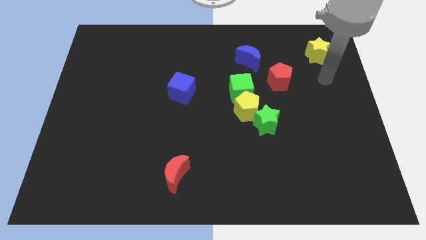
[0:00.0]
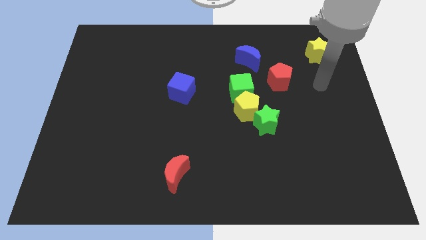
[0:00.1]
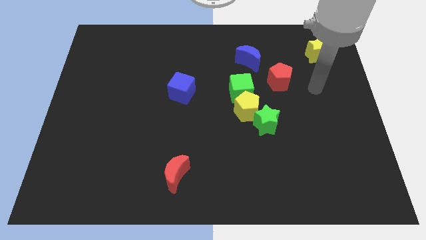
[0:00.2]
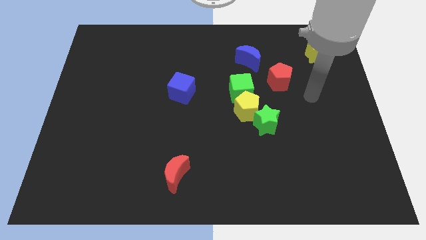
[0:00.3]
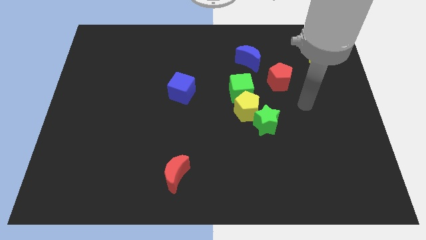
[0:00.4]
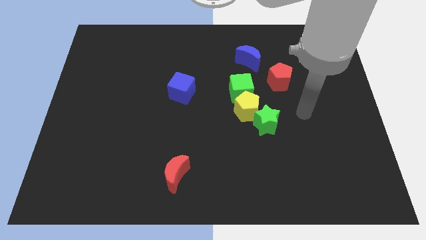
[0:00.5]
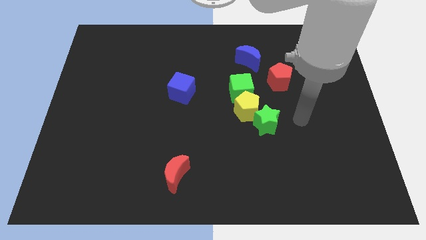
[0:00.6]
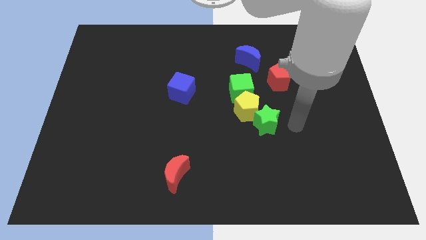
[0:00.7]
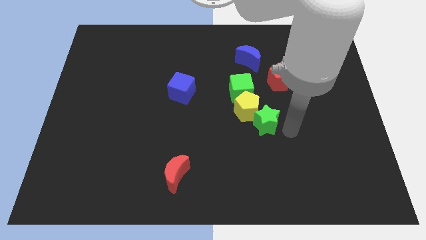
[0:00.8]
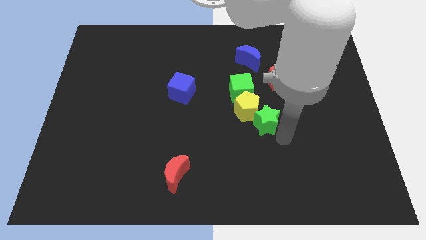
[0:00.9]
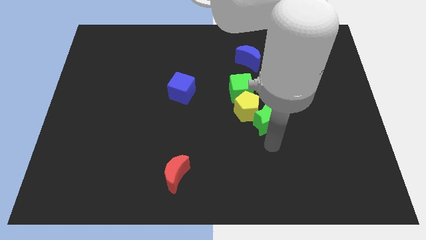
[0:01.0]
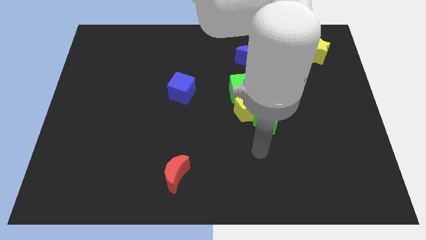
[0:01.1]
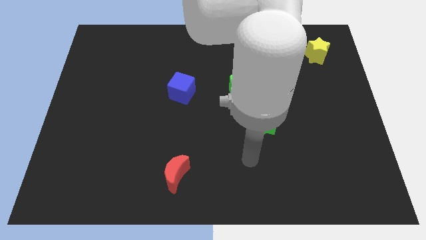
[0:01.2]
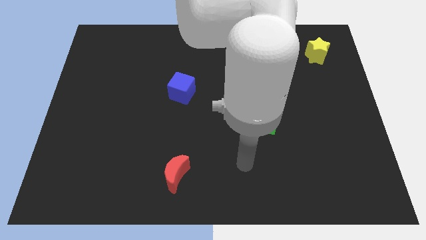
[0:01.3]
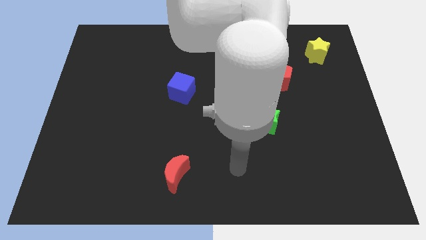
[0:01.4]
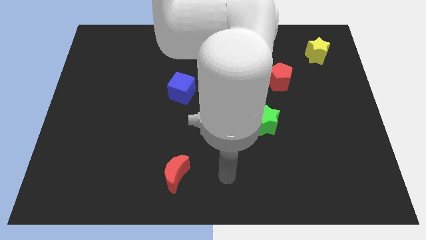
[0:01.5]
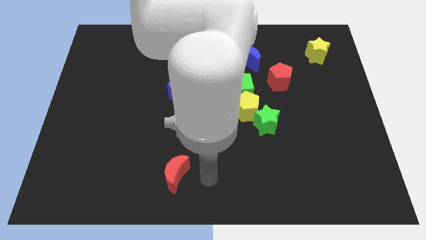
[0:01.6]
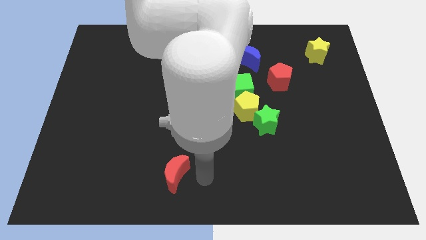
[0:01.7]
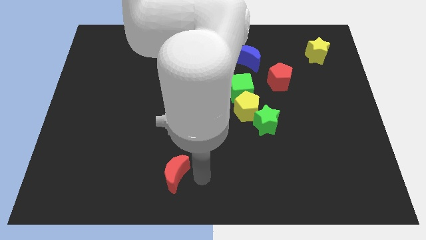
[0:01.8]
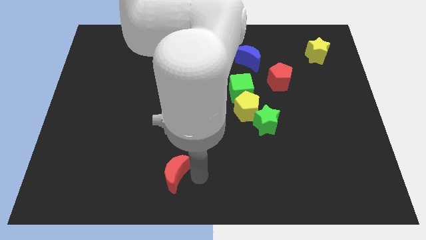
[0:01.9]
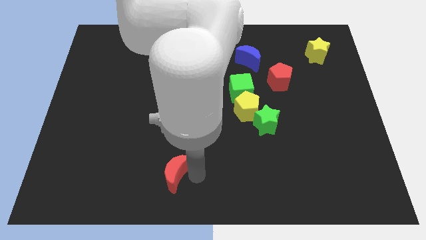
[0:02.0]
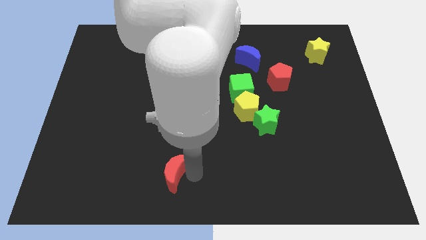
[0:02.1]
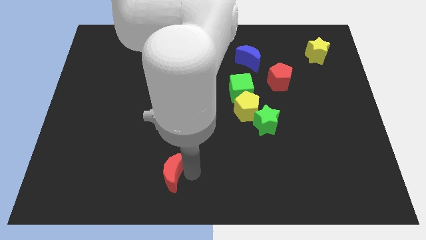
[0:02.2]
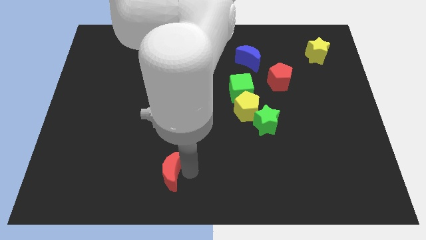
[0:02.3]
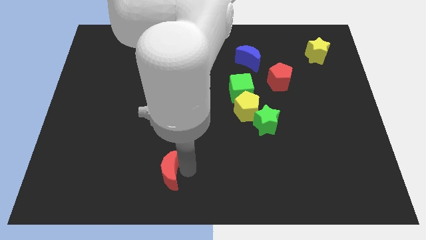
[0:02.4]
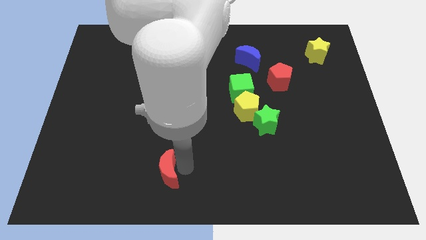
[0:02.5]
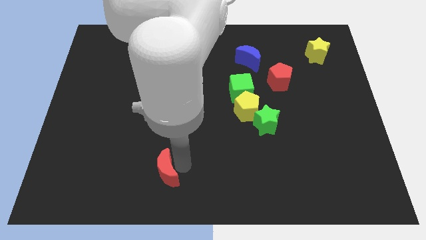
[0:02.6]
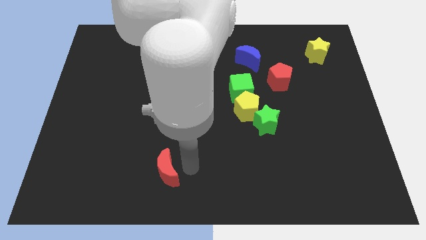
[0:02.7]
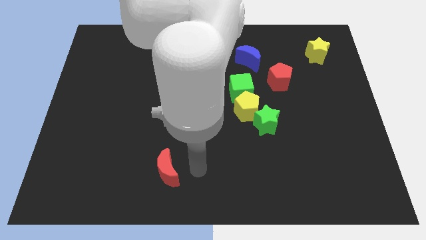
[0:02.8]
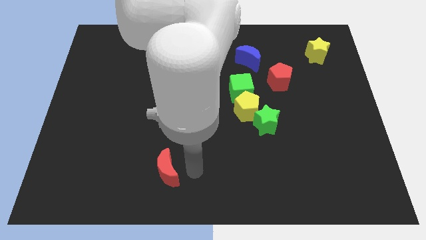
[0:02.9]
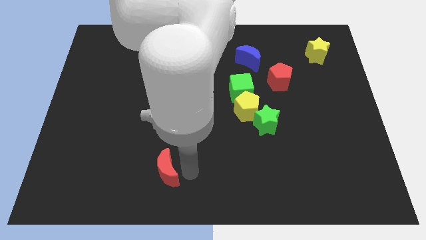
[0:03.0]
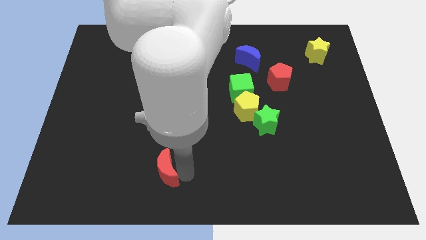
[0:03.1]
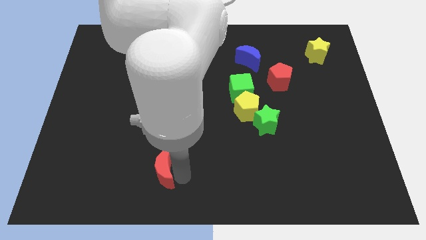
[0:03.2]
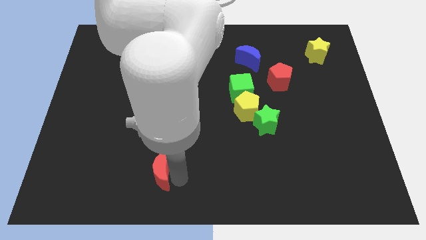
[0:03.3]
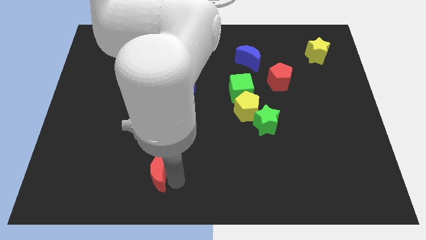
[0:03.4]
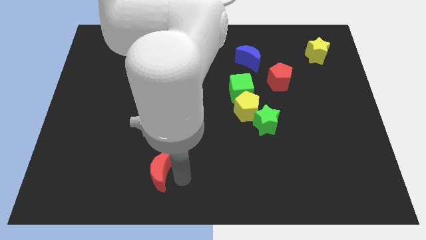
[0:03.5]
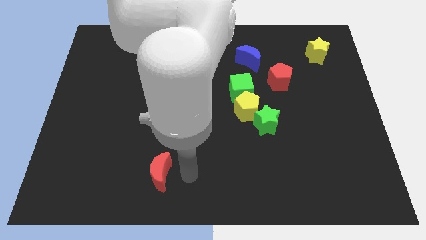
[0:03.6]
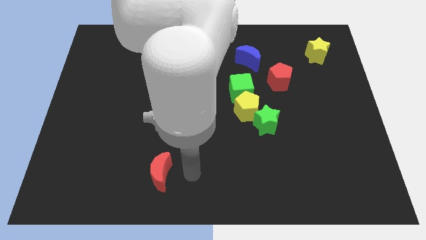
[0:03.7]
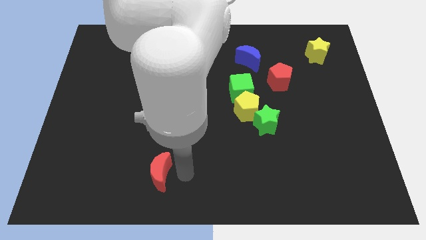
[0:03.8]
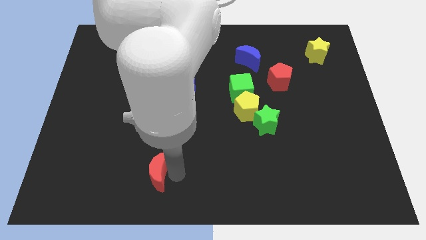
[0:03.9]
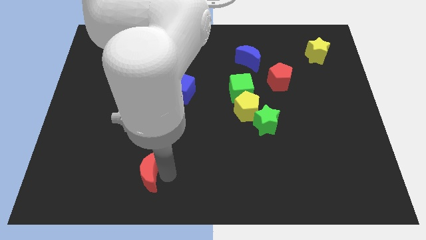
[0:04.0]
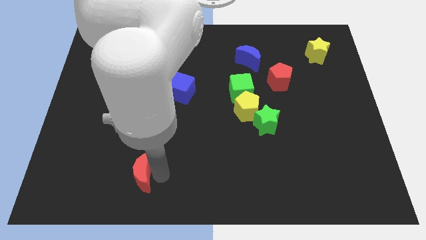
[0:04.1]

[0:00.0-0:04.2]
slide the red moon somewhat left

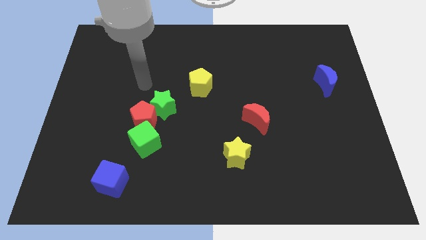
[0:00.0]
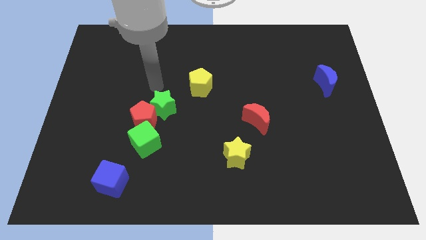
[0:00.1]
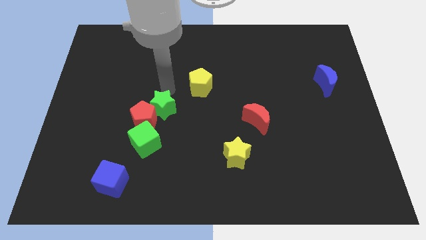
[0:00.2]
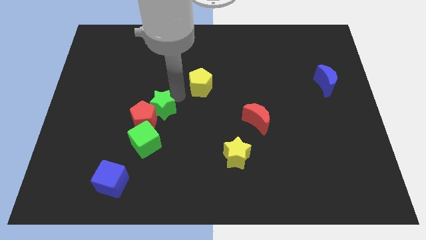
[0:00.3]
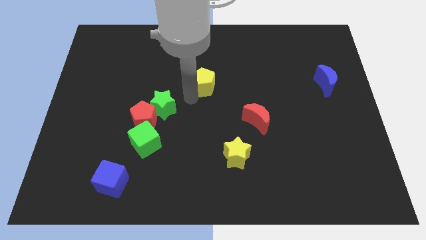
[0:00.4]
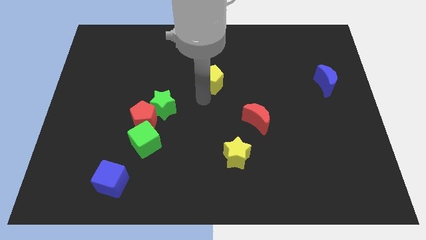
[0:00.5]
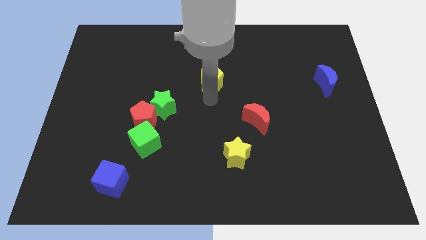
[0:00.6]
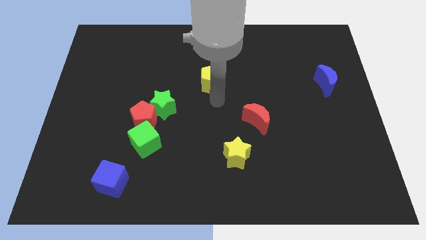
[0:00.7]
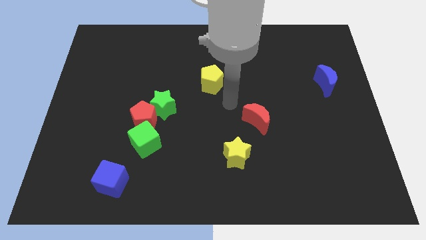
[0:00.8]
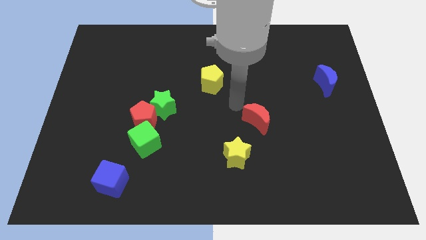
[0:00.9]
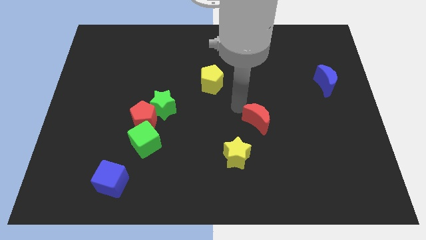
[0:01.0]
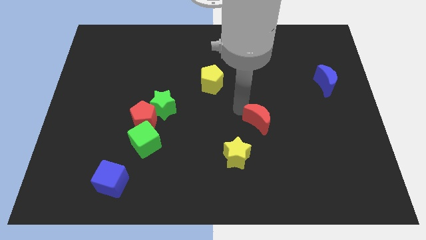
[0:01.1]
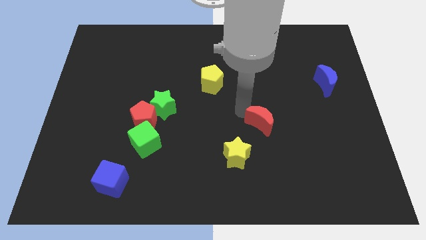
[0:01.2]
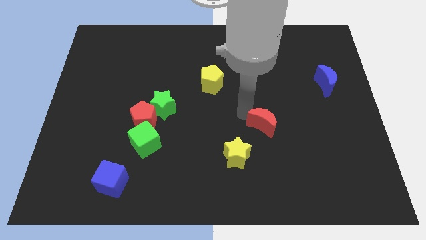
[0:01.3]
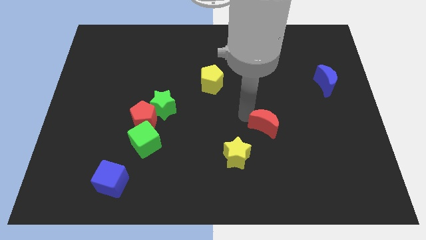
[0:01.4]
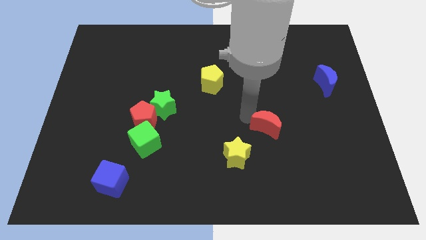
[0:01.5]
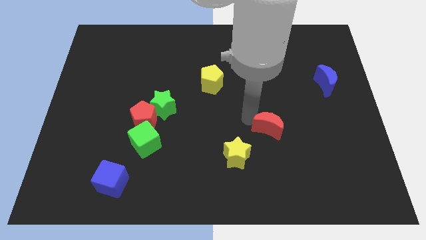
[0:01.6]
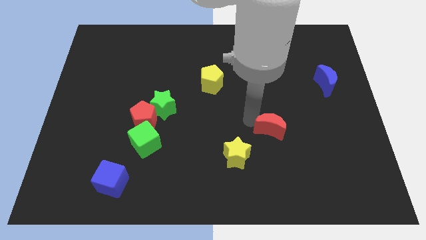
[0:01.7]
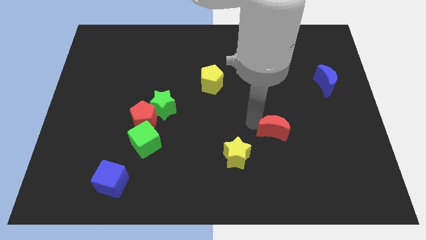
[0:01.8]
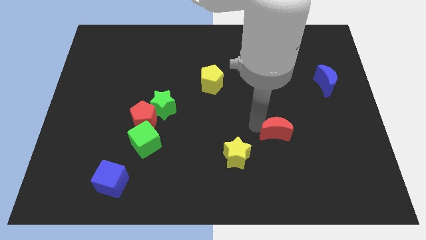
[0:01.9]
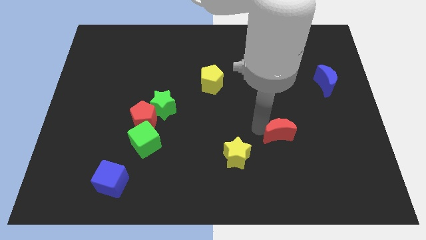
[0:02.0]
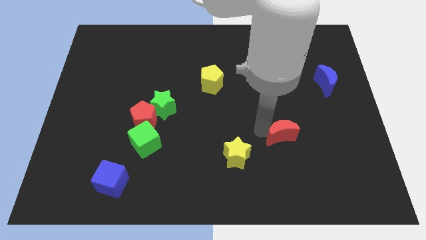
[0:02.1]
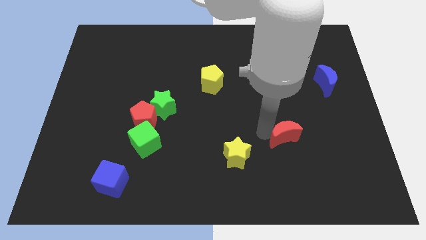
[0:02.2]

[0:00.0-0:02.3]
slide the red moon down and to the right somewhat

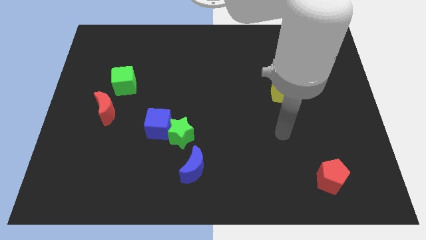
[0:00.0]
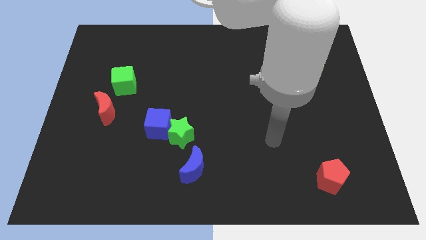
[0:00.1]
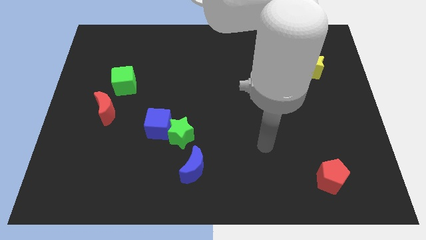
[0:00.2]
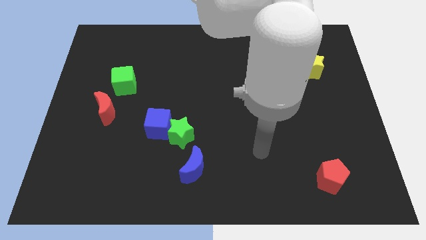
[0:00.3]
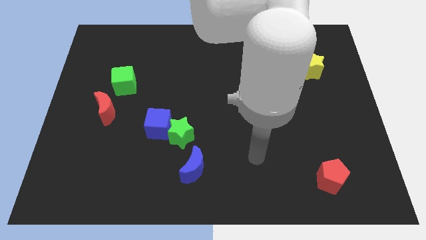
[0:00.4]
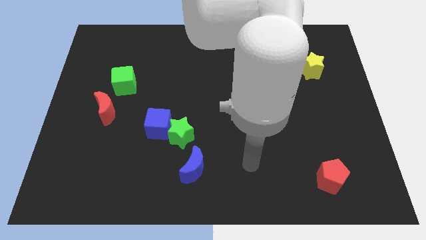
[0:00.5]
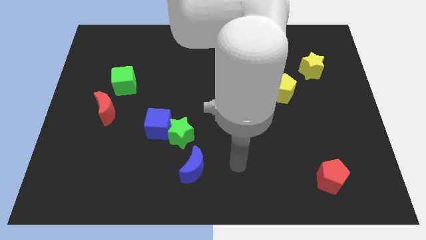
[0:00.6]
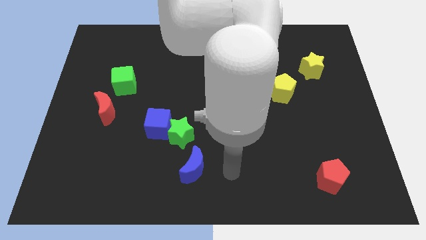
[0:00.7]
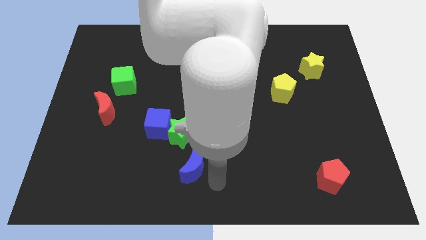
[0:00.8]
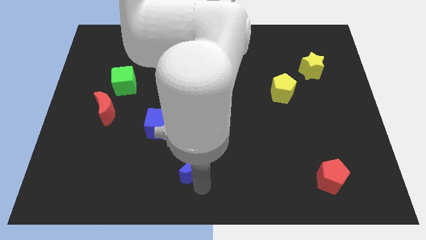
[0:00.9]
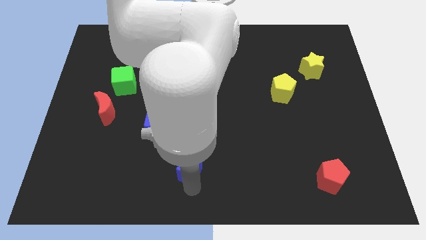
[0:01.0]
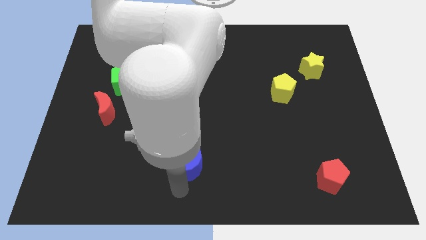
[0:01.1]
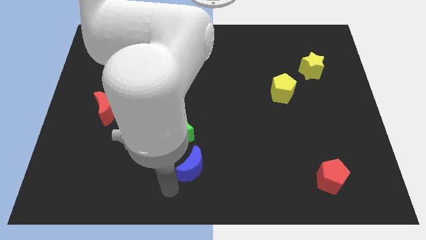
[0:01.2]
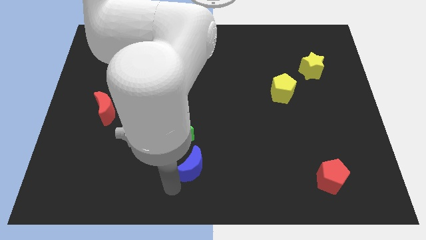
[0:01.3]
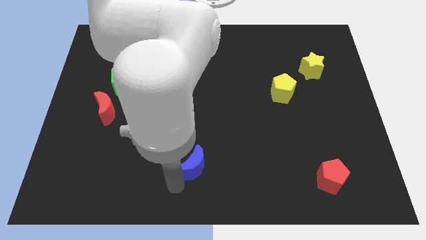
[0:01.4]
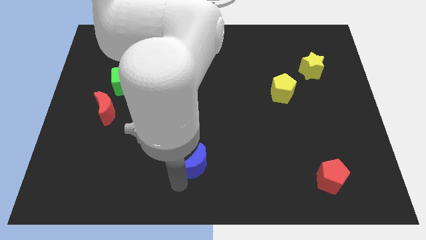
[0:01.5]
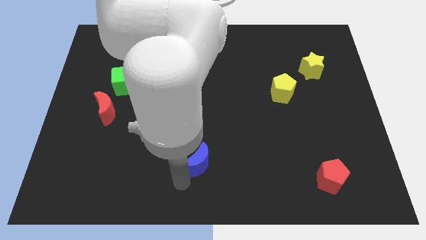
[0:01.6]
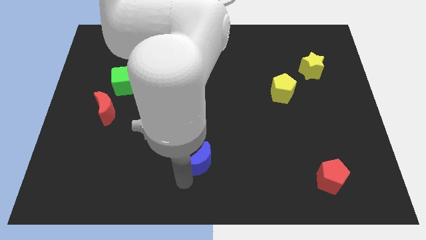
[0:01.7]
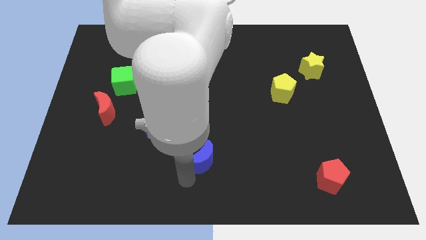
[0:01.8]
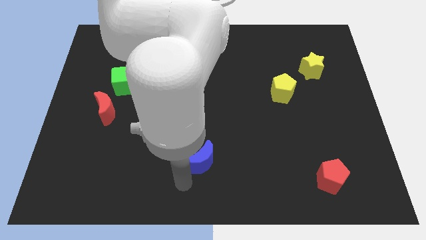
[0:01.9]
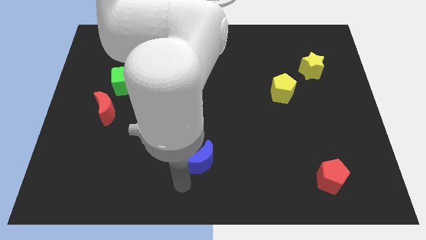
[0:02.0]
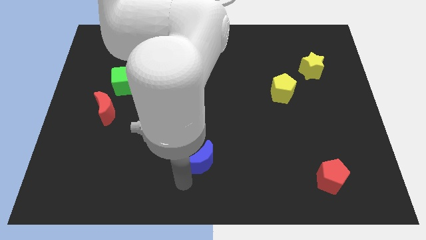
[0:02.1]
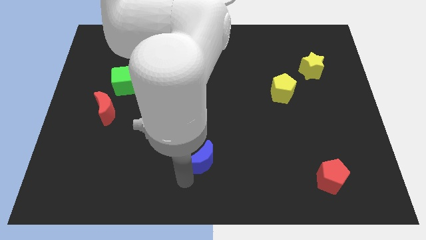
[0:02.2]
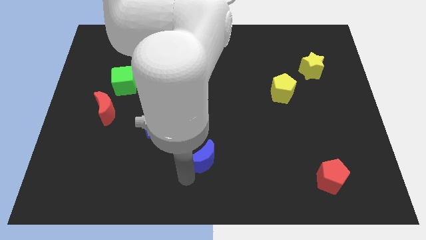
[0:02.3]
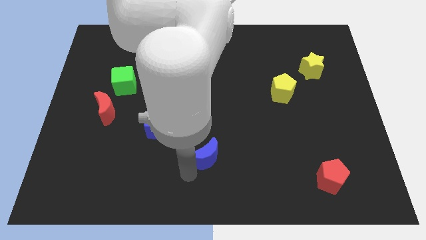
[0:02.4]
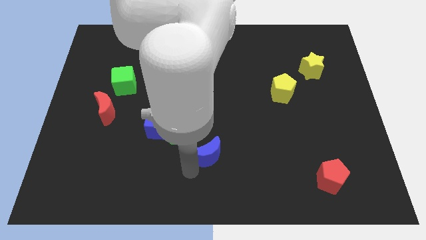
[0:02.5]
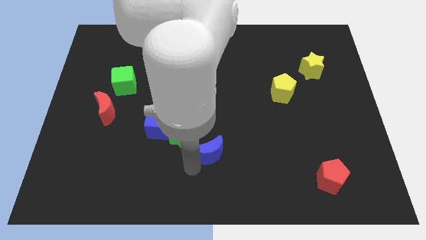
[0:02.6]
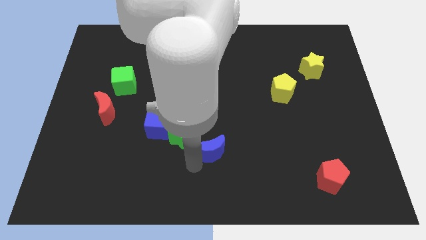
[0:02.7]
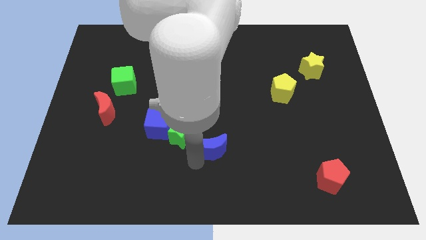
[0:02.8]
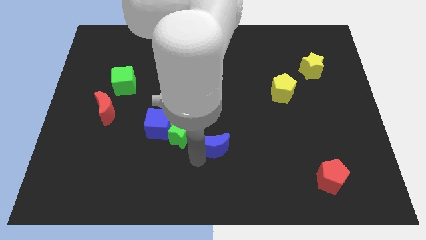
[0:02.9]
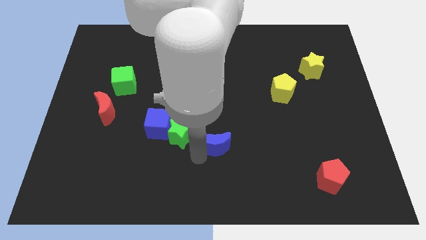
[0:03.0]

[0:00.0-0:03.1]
slide the blue moon upwards and to the right a bit
